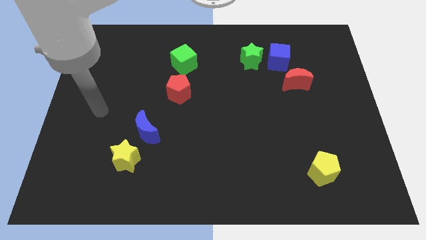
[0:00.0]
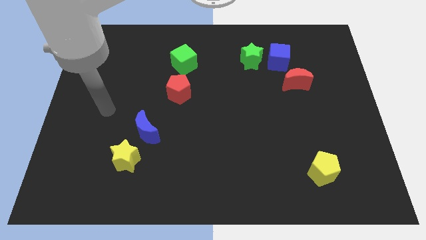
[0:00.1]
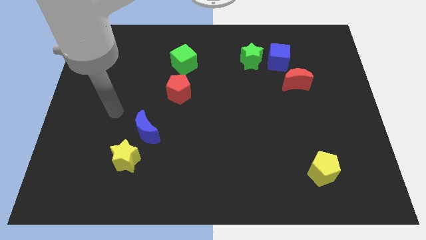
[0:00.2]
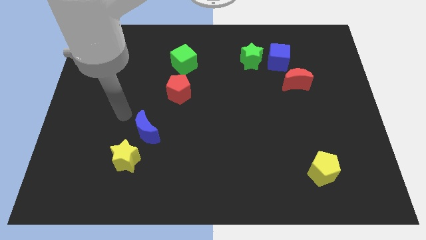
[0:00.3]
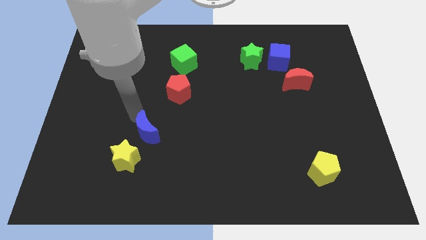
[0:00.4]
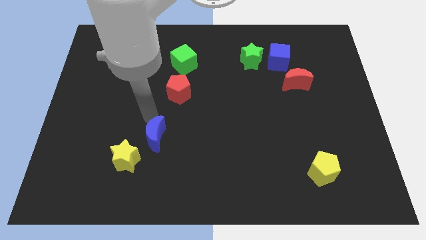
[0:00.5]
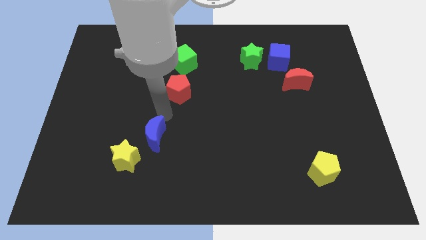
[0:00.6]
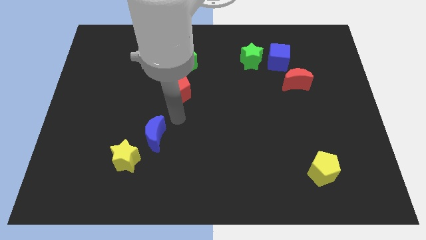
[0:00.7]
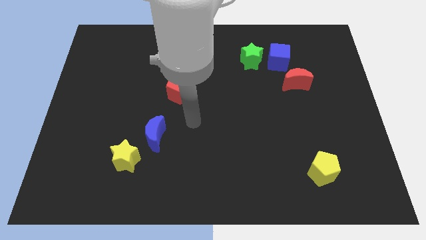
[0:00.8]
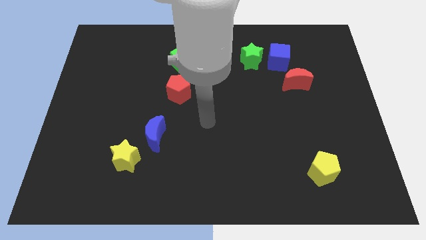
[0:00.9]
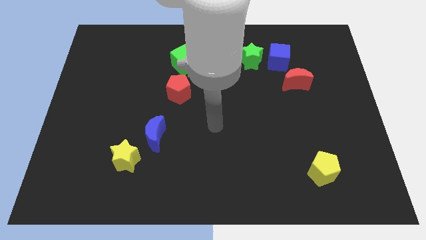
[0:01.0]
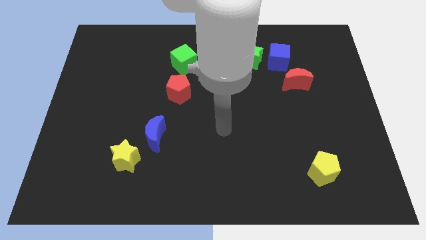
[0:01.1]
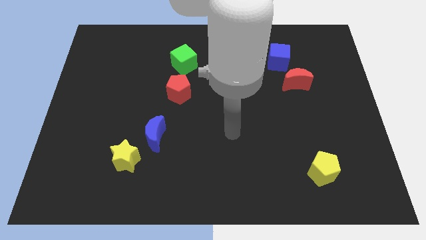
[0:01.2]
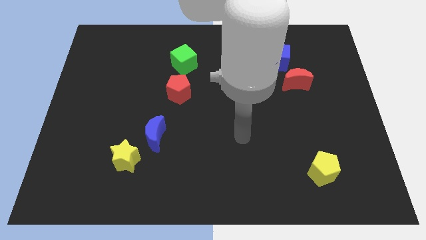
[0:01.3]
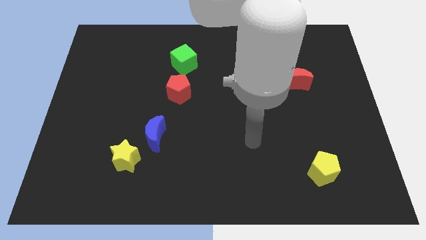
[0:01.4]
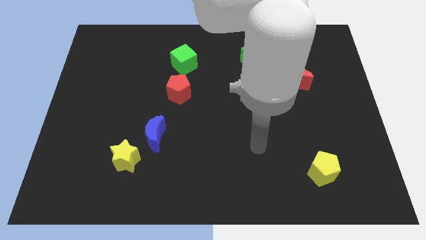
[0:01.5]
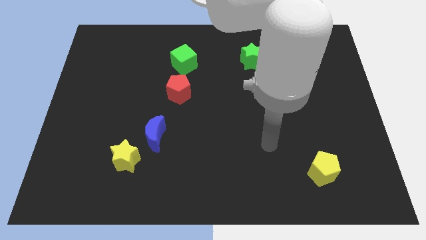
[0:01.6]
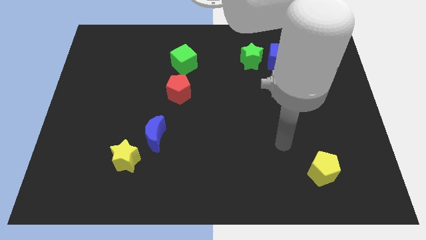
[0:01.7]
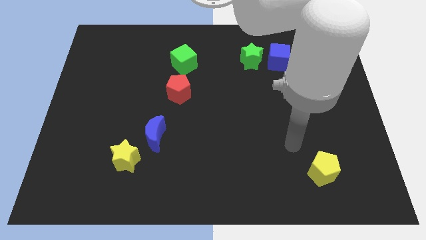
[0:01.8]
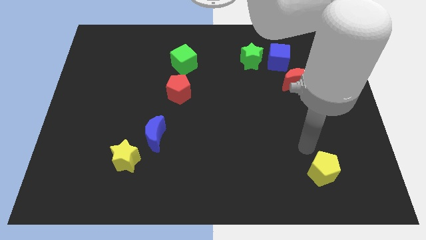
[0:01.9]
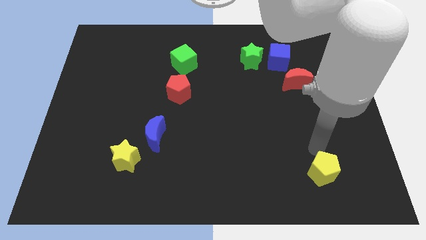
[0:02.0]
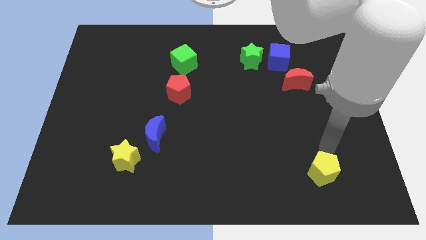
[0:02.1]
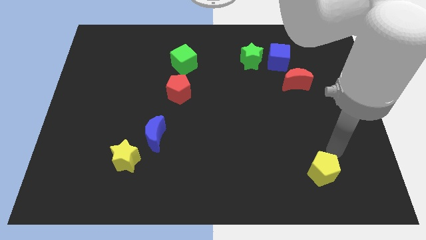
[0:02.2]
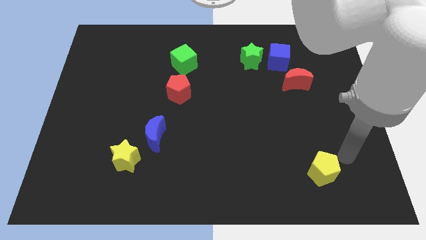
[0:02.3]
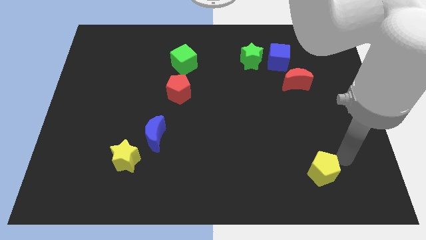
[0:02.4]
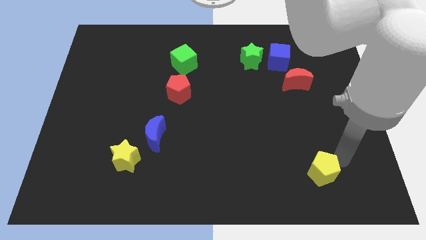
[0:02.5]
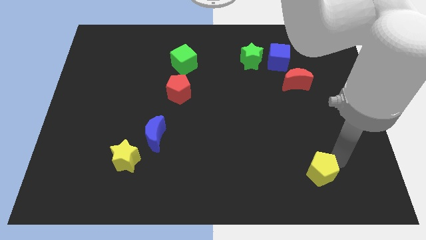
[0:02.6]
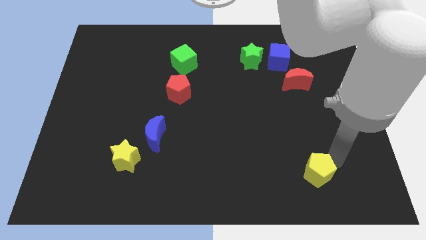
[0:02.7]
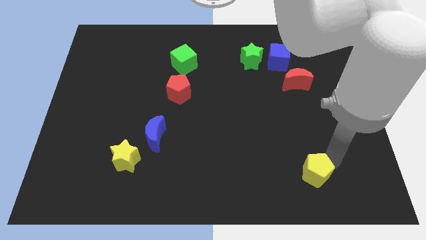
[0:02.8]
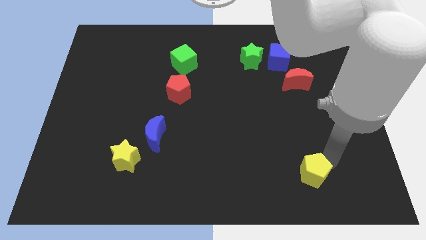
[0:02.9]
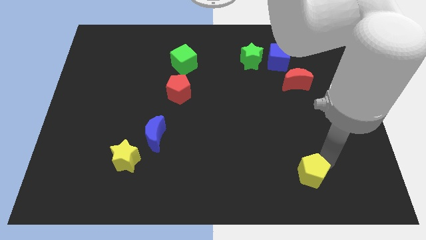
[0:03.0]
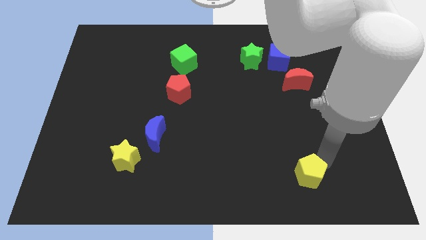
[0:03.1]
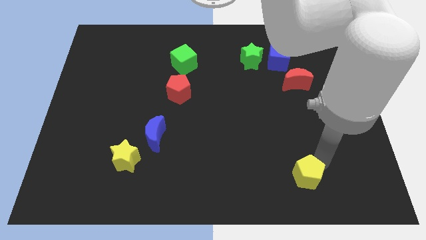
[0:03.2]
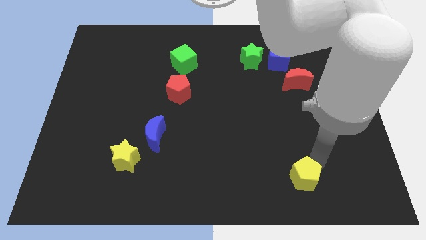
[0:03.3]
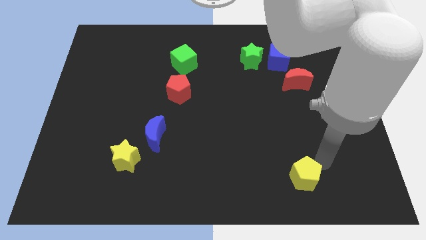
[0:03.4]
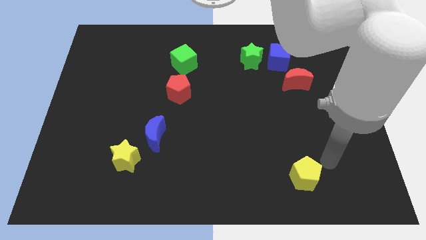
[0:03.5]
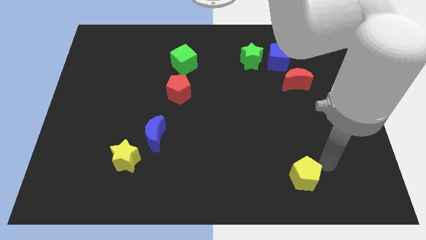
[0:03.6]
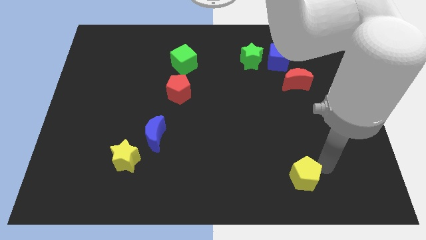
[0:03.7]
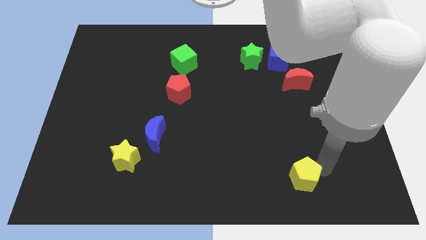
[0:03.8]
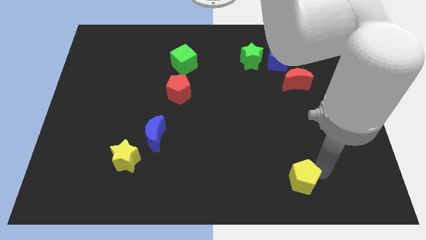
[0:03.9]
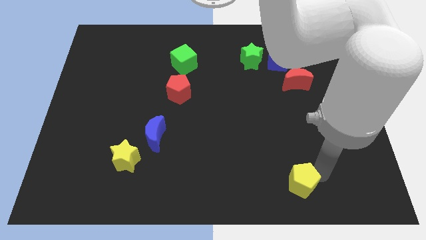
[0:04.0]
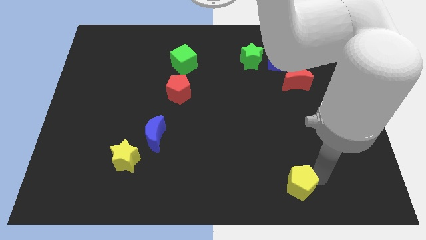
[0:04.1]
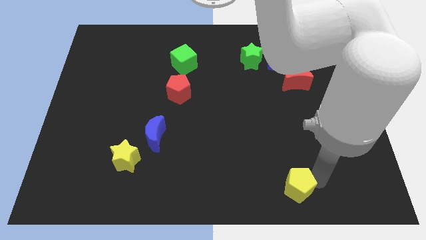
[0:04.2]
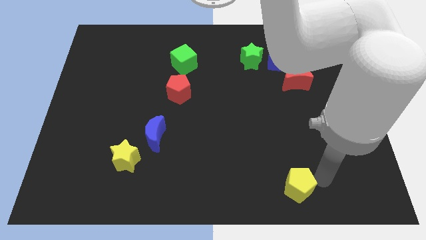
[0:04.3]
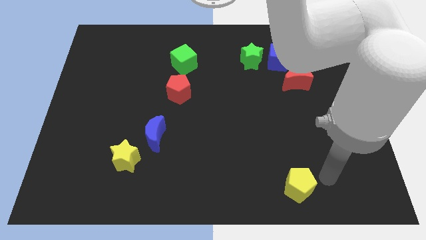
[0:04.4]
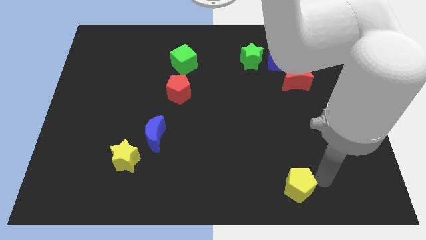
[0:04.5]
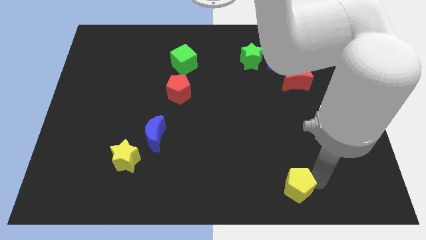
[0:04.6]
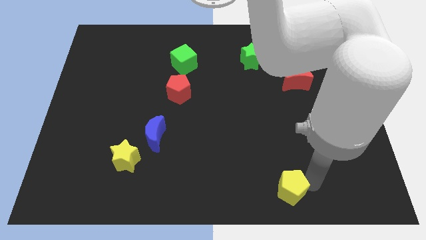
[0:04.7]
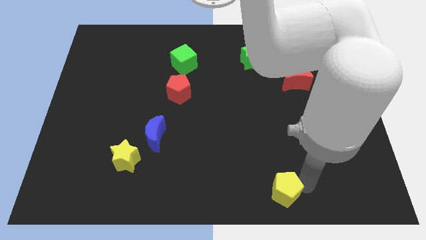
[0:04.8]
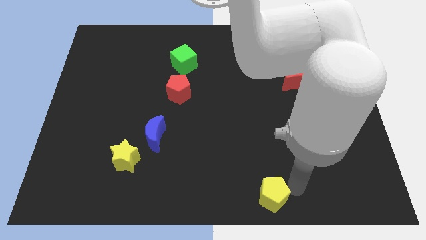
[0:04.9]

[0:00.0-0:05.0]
slide the yellow pentagon to the bottom side

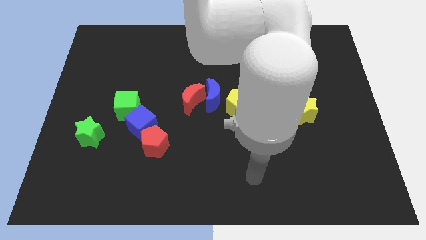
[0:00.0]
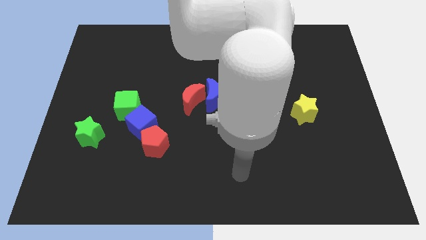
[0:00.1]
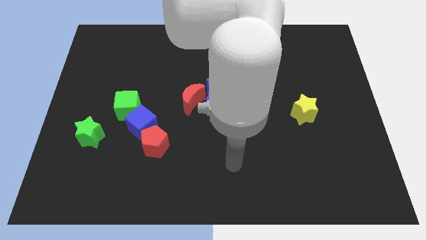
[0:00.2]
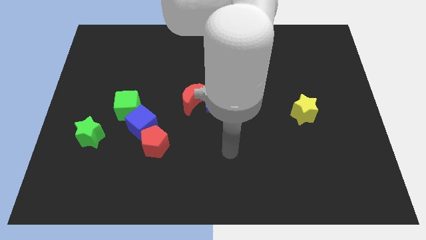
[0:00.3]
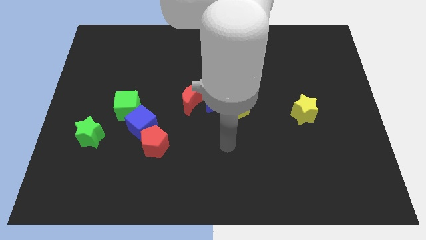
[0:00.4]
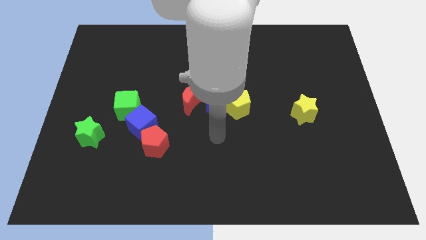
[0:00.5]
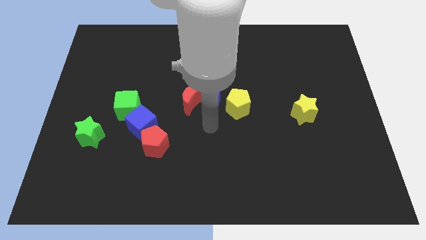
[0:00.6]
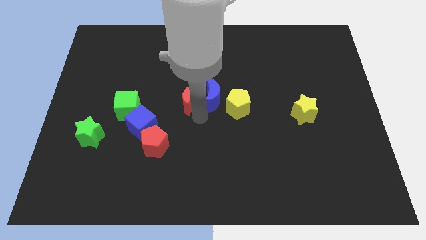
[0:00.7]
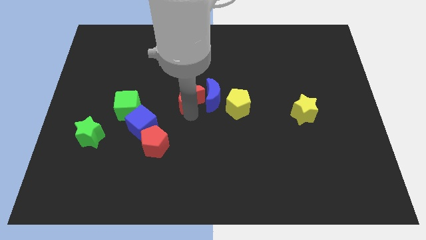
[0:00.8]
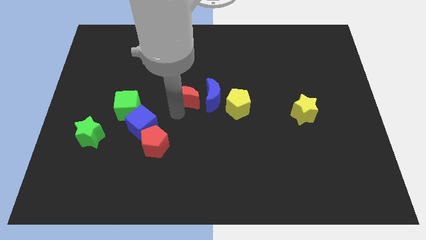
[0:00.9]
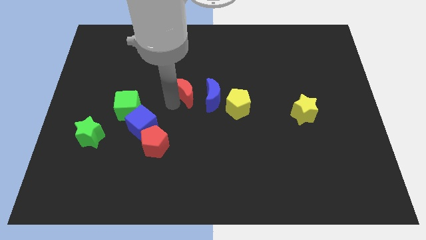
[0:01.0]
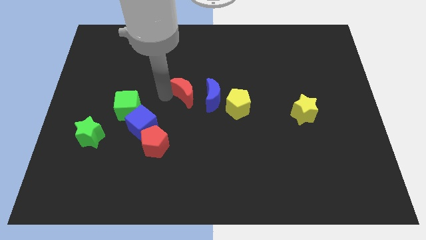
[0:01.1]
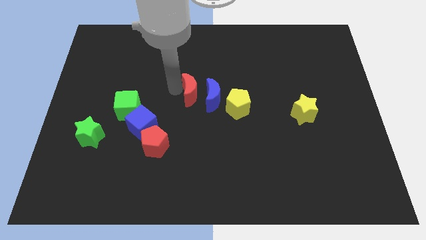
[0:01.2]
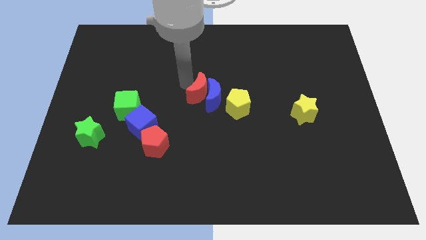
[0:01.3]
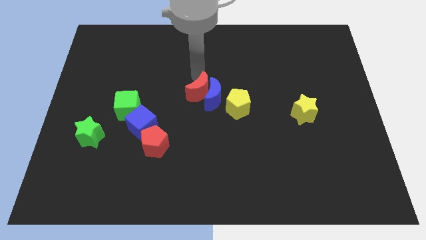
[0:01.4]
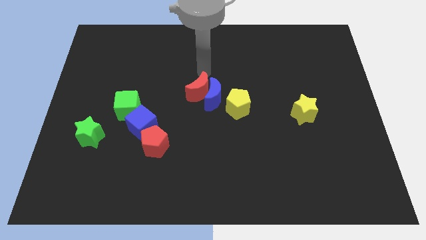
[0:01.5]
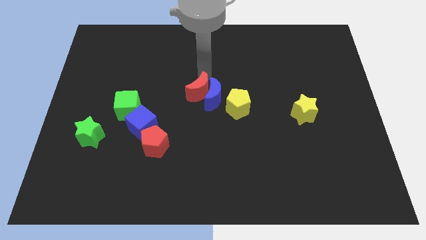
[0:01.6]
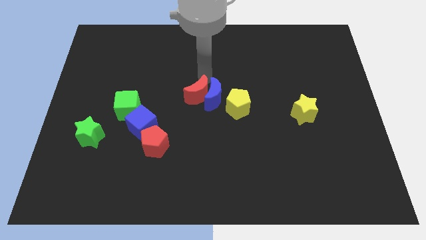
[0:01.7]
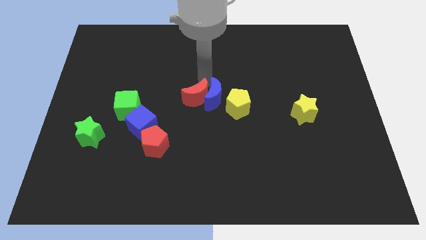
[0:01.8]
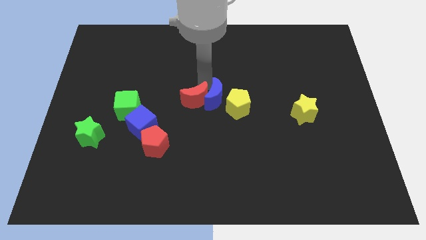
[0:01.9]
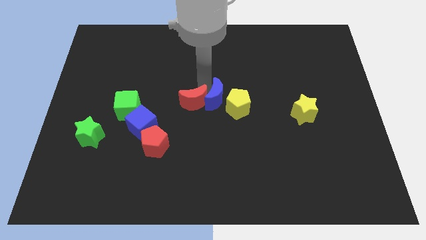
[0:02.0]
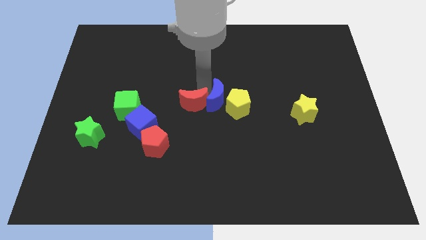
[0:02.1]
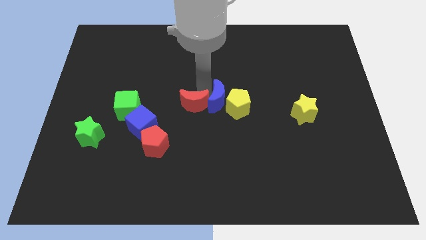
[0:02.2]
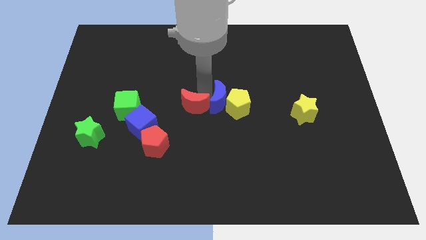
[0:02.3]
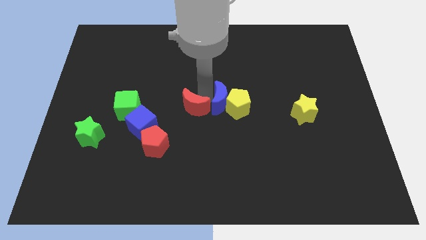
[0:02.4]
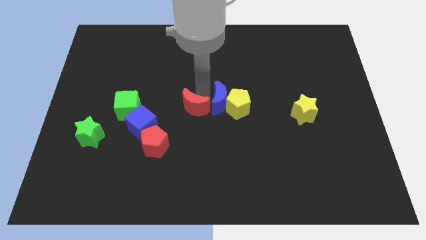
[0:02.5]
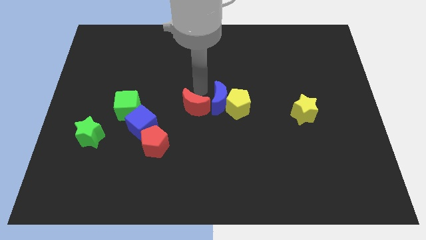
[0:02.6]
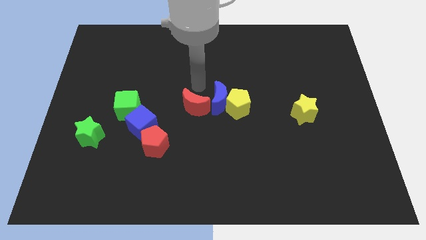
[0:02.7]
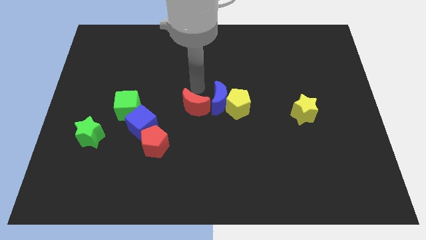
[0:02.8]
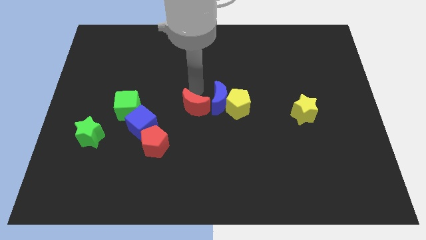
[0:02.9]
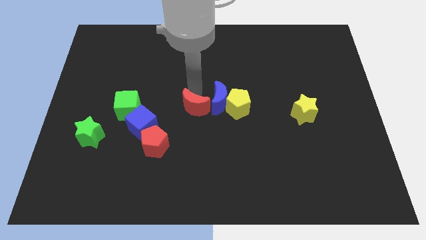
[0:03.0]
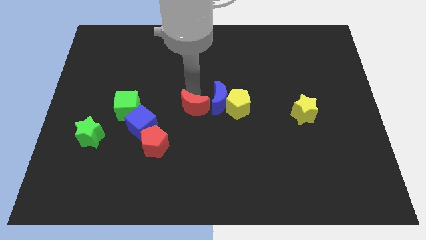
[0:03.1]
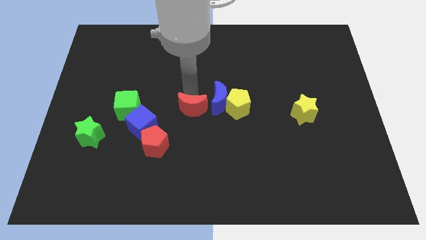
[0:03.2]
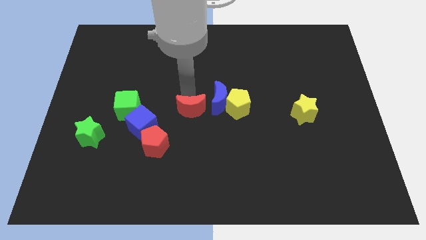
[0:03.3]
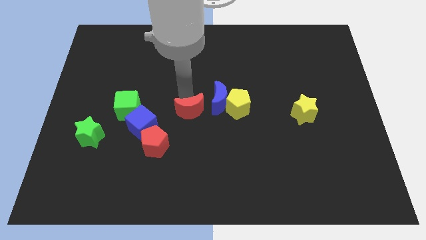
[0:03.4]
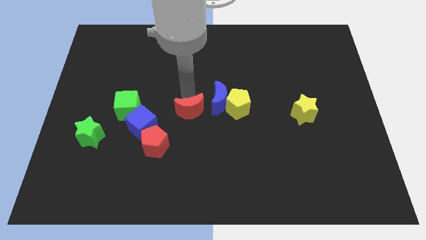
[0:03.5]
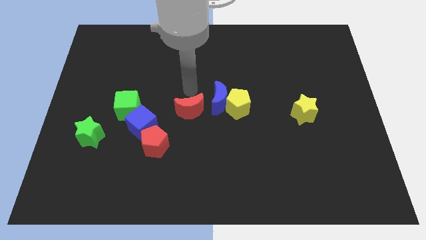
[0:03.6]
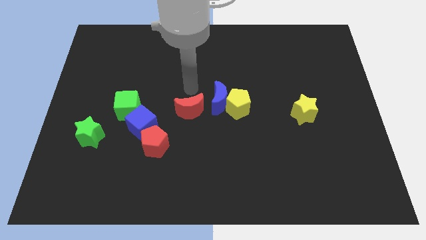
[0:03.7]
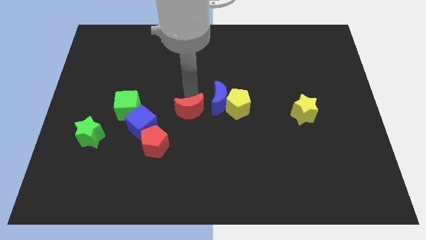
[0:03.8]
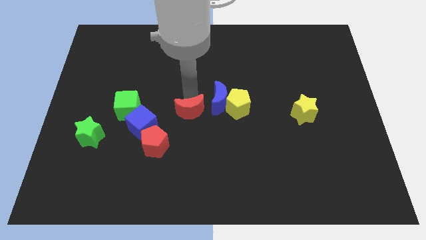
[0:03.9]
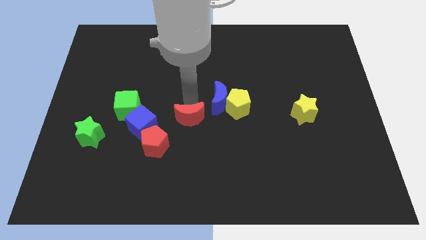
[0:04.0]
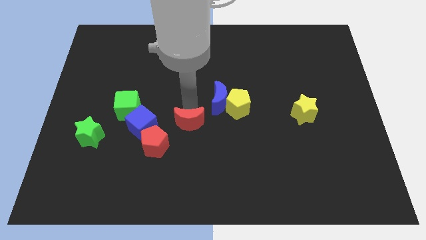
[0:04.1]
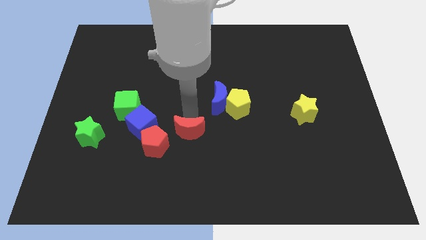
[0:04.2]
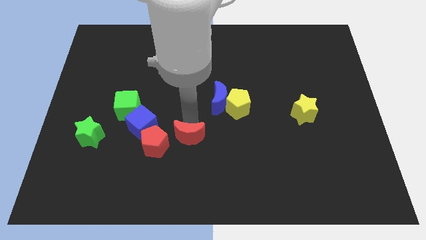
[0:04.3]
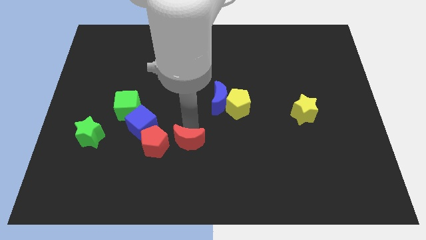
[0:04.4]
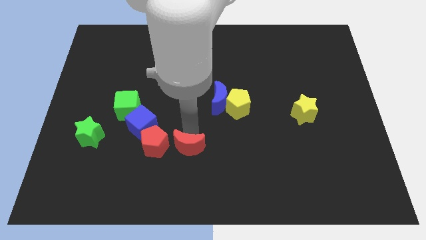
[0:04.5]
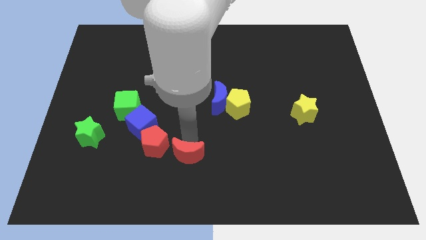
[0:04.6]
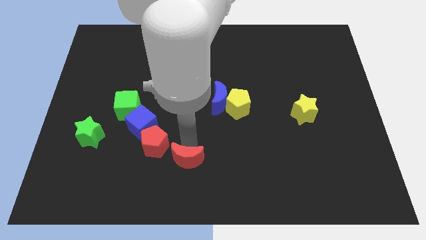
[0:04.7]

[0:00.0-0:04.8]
push the red moon to the bottom
